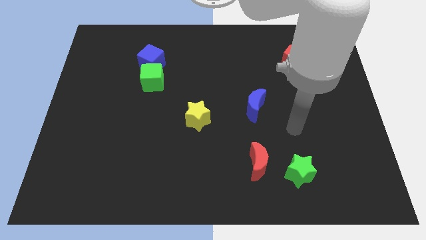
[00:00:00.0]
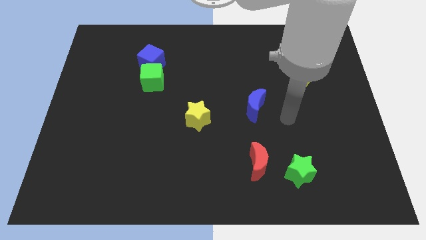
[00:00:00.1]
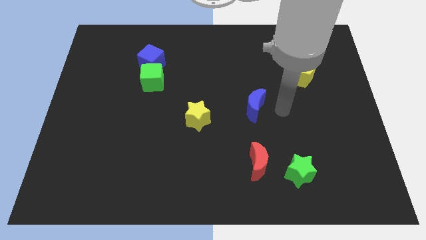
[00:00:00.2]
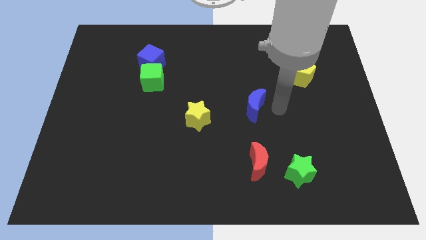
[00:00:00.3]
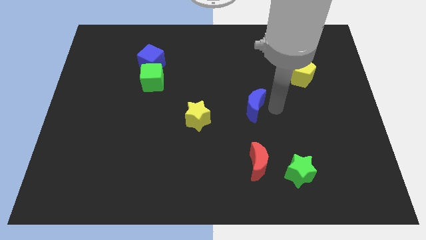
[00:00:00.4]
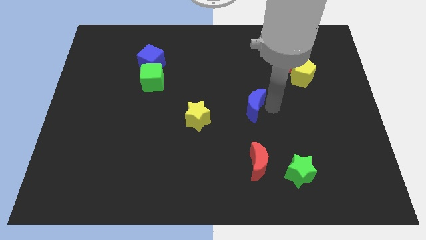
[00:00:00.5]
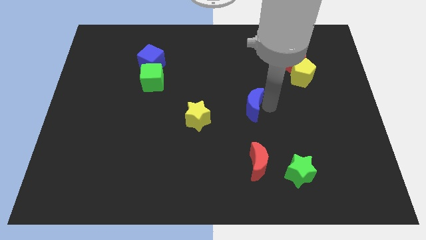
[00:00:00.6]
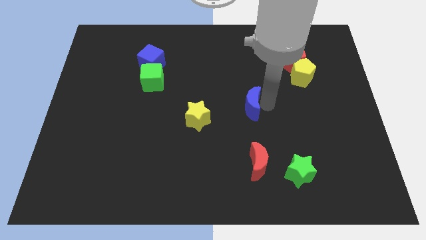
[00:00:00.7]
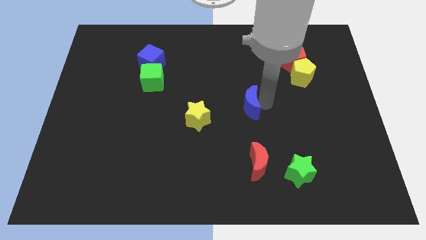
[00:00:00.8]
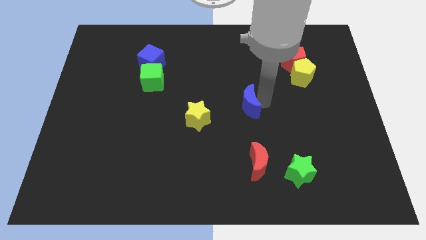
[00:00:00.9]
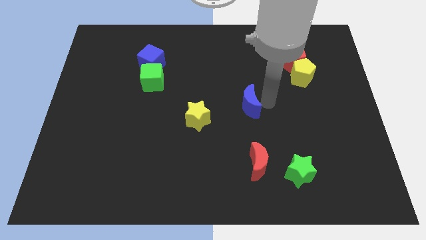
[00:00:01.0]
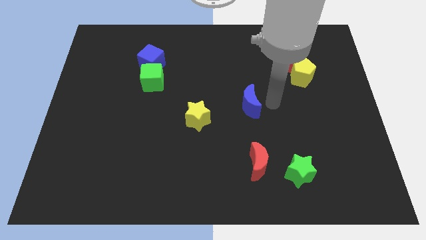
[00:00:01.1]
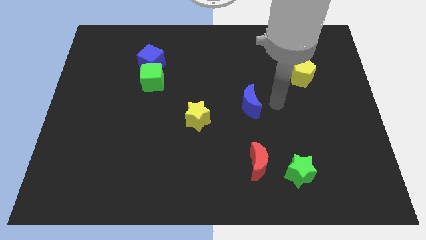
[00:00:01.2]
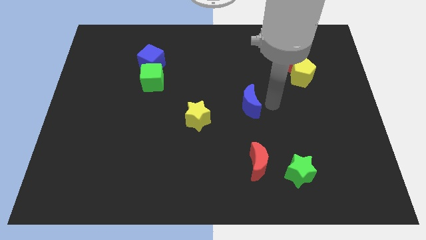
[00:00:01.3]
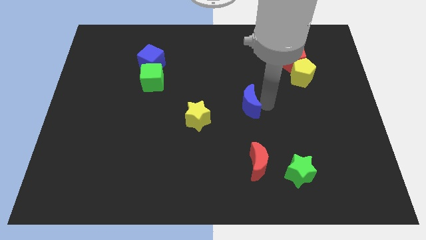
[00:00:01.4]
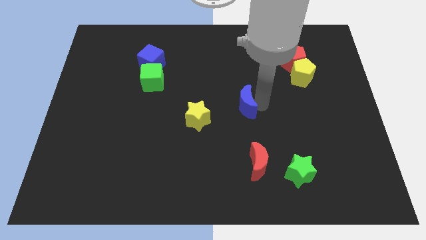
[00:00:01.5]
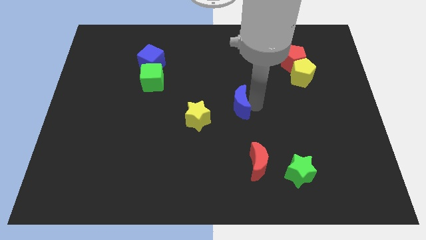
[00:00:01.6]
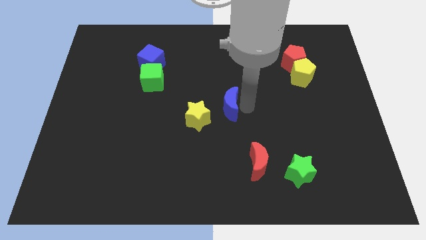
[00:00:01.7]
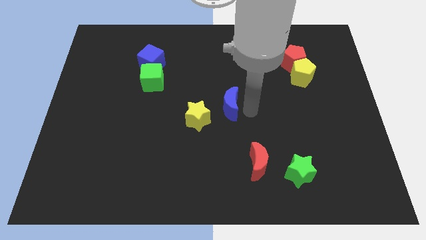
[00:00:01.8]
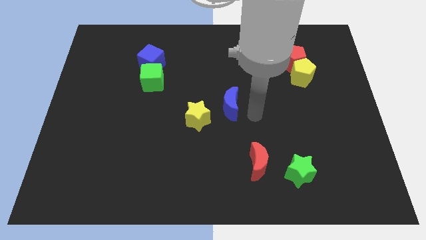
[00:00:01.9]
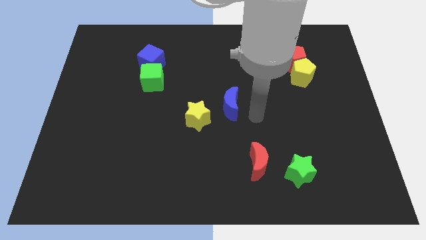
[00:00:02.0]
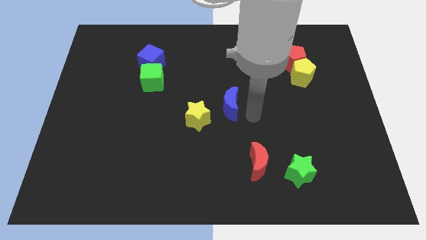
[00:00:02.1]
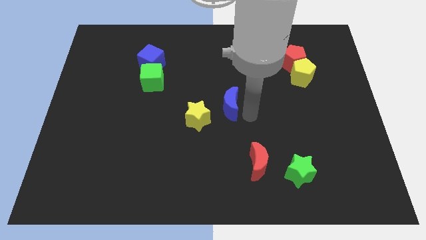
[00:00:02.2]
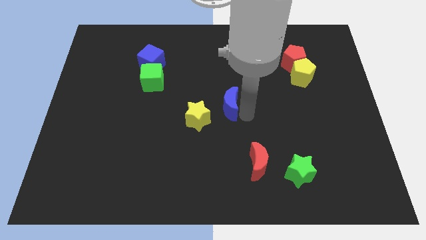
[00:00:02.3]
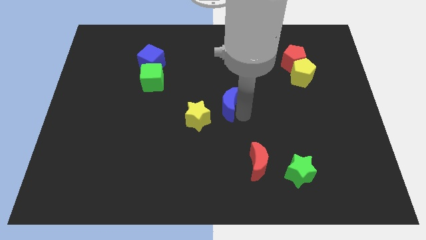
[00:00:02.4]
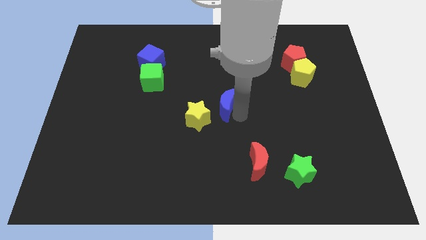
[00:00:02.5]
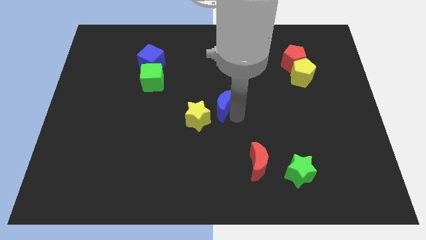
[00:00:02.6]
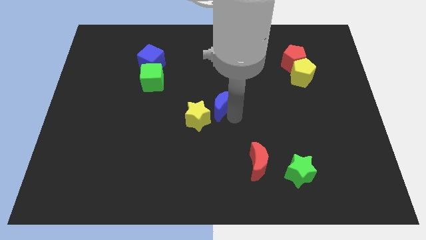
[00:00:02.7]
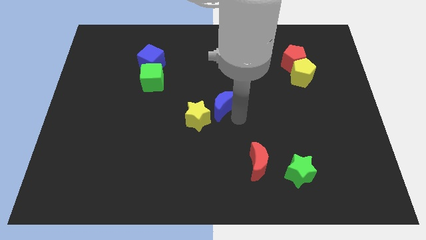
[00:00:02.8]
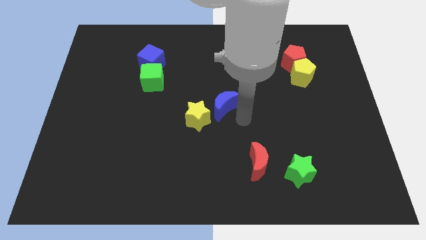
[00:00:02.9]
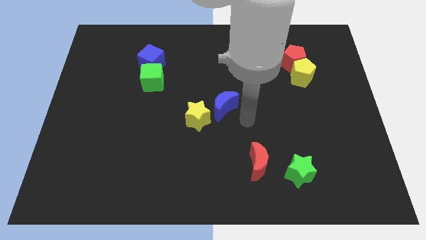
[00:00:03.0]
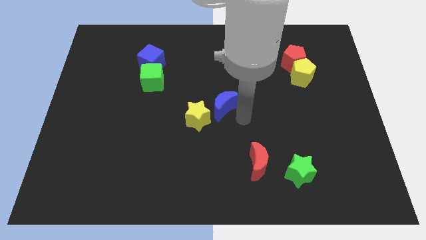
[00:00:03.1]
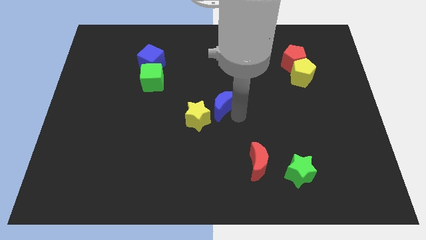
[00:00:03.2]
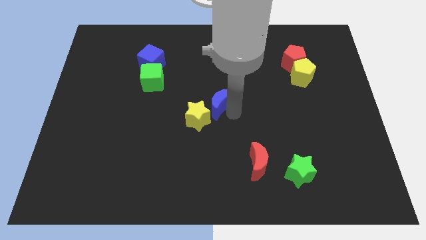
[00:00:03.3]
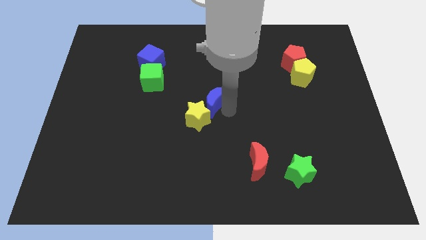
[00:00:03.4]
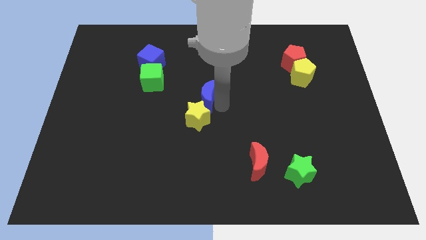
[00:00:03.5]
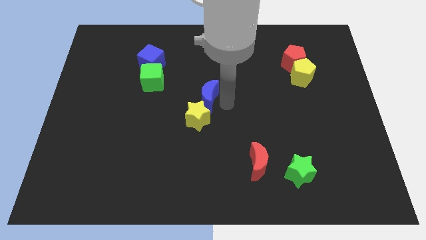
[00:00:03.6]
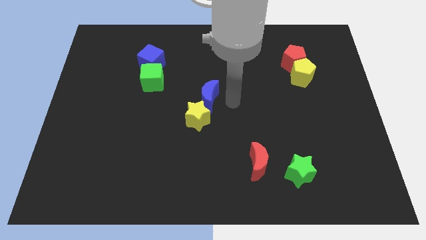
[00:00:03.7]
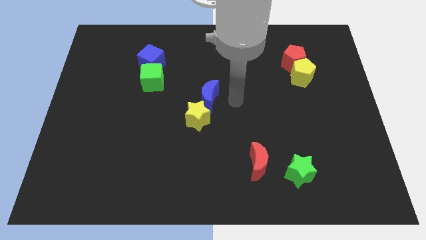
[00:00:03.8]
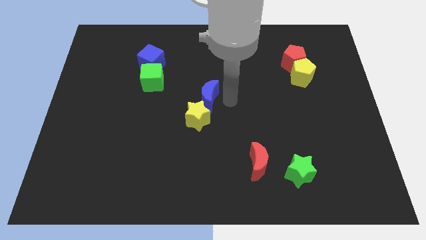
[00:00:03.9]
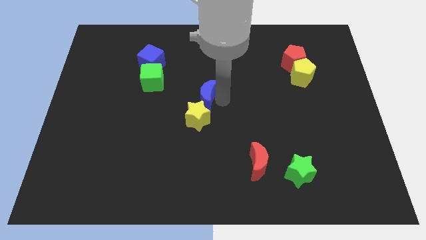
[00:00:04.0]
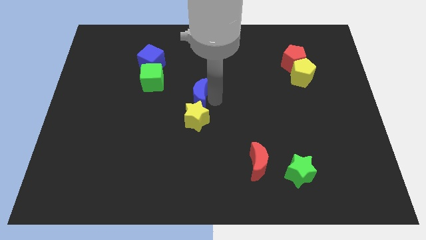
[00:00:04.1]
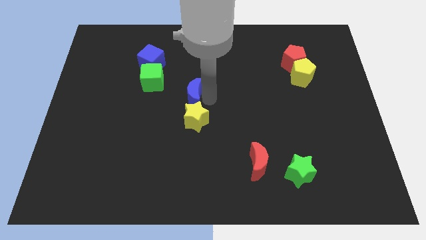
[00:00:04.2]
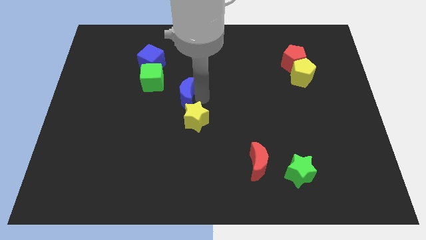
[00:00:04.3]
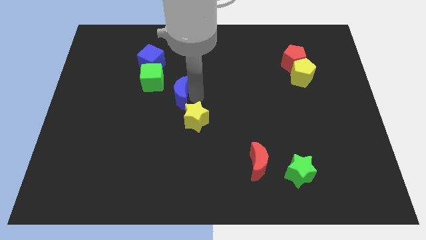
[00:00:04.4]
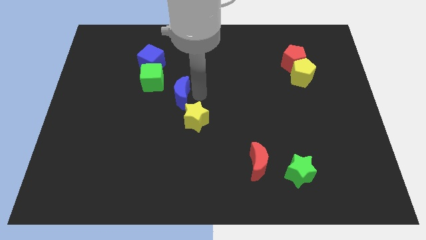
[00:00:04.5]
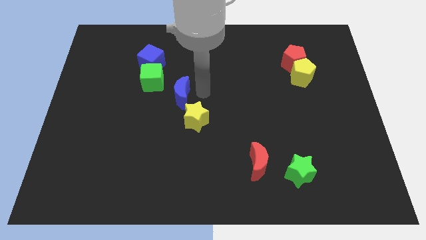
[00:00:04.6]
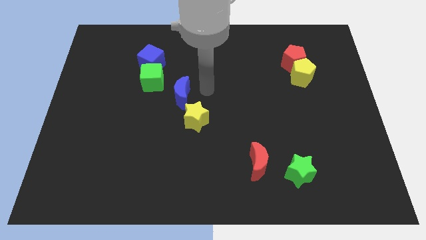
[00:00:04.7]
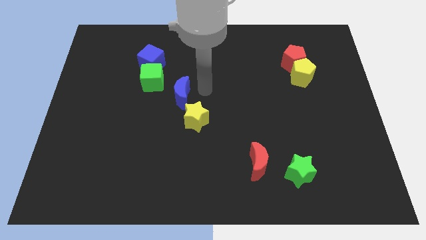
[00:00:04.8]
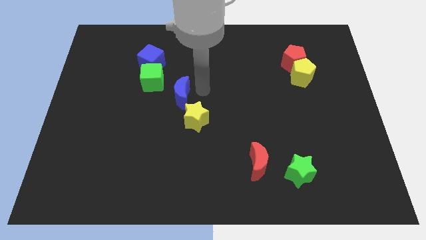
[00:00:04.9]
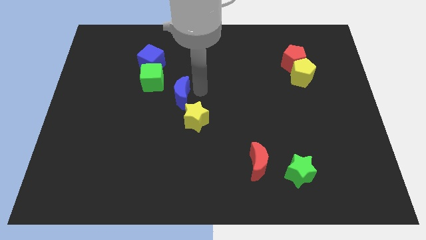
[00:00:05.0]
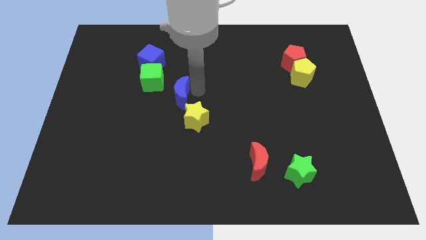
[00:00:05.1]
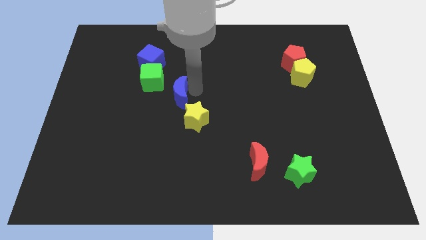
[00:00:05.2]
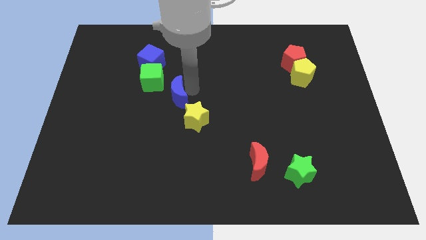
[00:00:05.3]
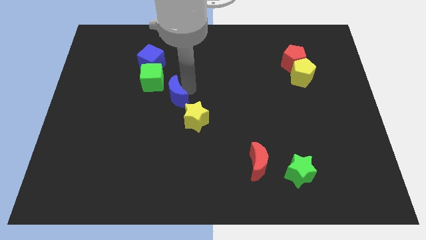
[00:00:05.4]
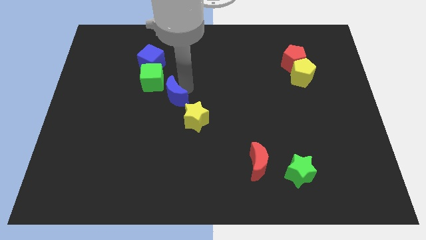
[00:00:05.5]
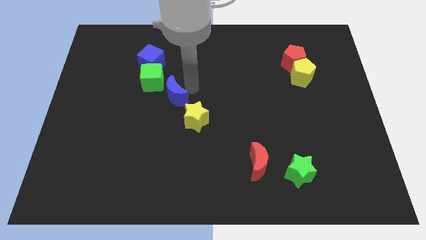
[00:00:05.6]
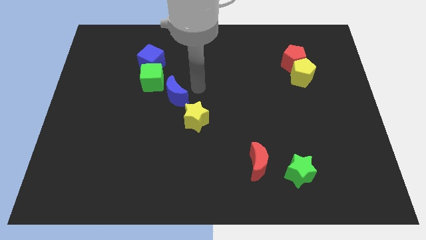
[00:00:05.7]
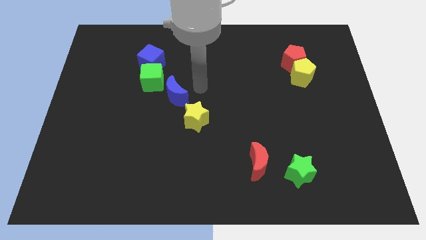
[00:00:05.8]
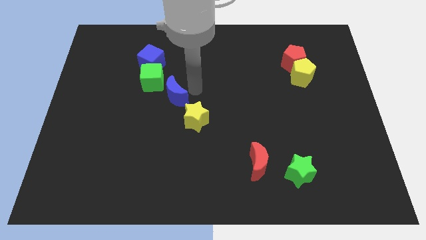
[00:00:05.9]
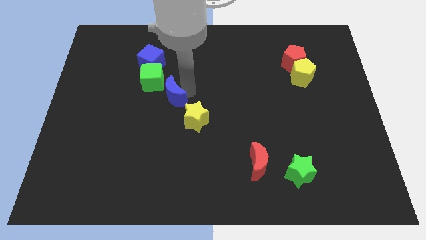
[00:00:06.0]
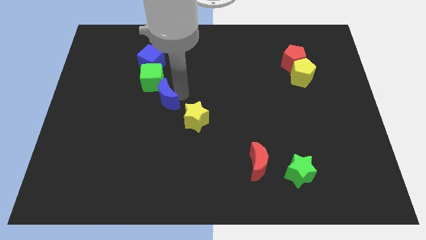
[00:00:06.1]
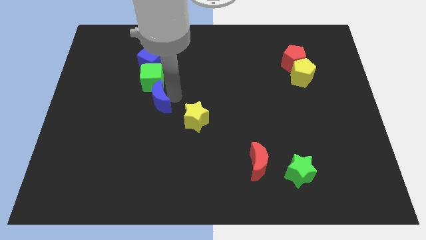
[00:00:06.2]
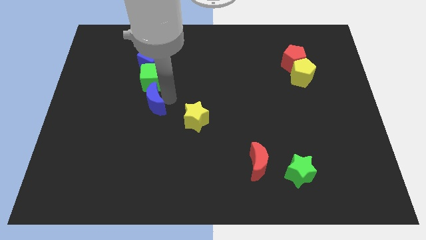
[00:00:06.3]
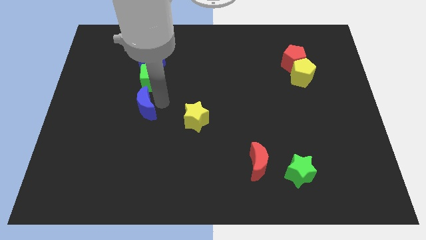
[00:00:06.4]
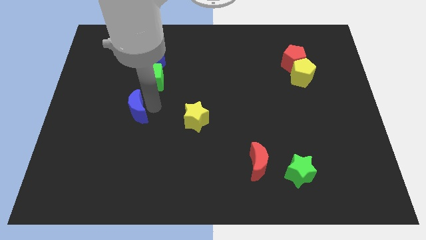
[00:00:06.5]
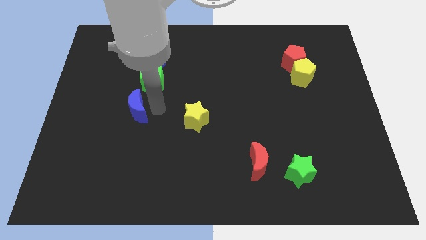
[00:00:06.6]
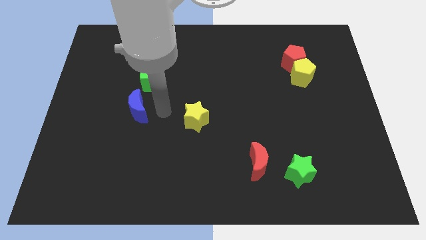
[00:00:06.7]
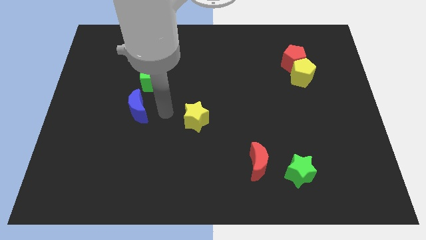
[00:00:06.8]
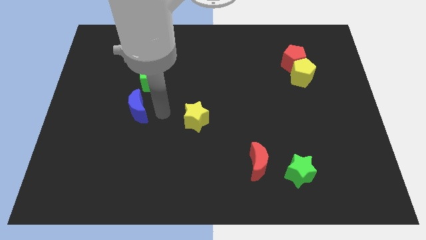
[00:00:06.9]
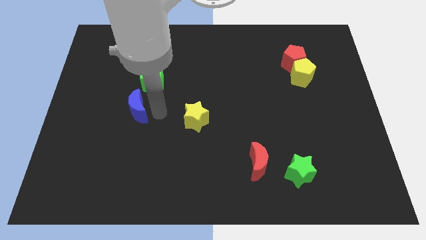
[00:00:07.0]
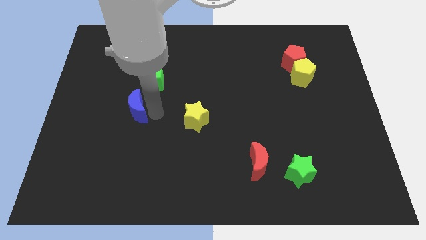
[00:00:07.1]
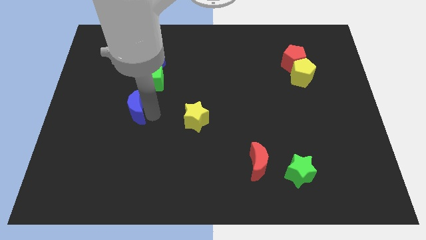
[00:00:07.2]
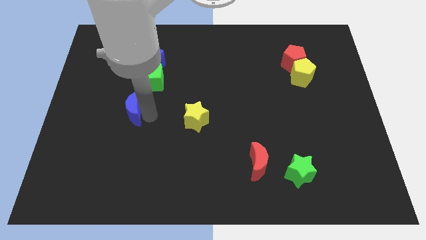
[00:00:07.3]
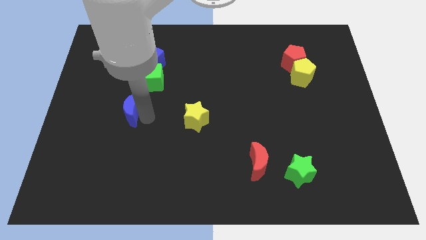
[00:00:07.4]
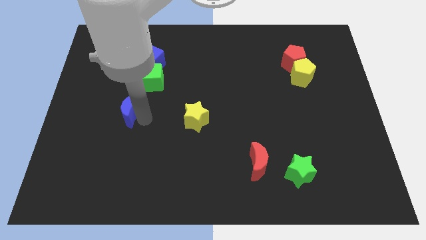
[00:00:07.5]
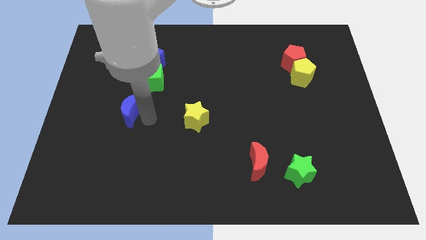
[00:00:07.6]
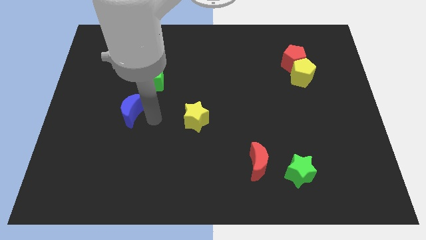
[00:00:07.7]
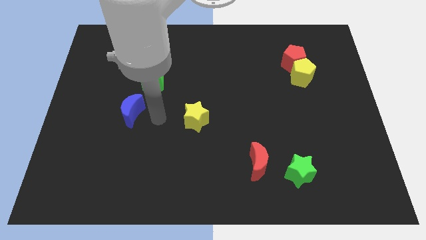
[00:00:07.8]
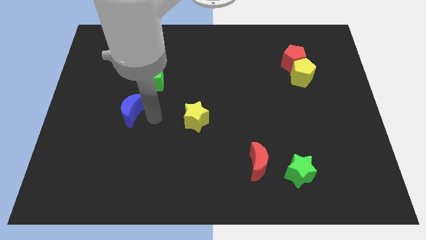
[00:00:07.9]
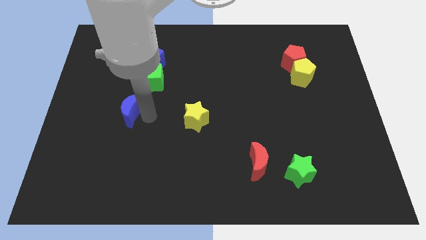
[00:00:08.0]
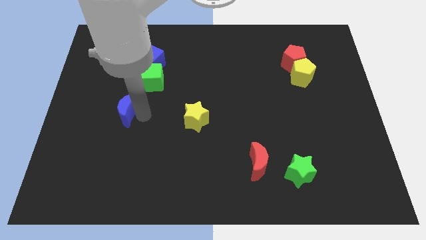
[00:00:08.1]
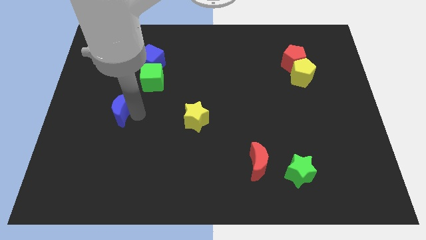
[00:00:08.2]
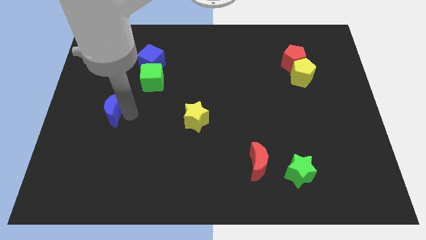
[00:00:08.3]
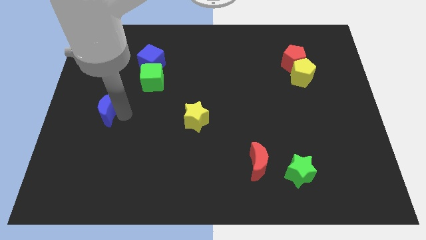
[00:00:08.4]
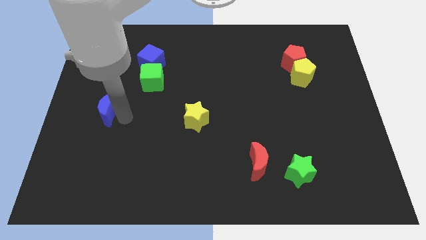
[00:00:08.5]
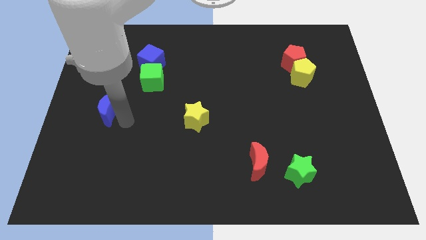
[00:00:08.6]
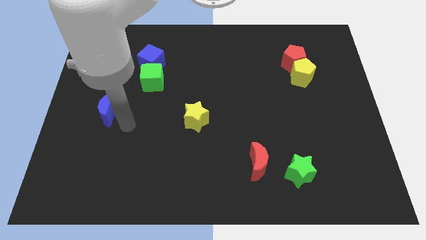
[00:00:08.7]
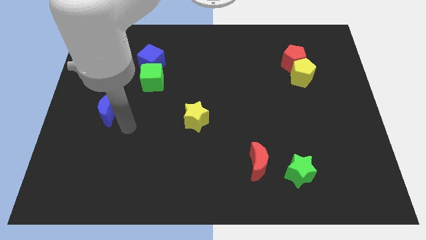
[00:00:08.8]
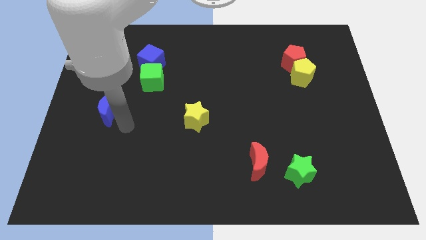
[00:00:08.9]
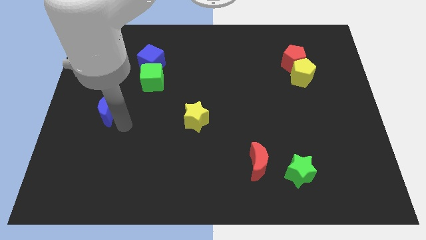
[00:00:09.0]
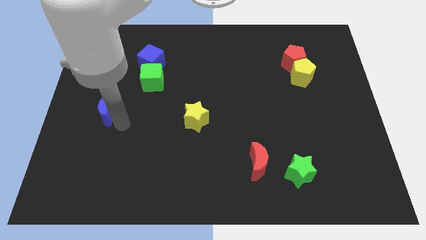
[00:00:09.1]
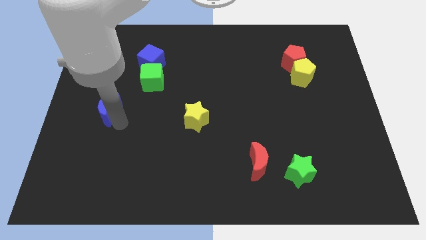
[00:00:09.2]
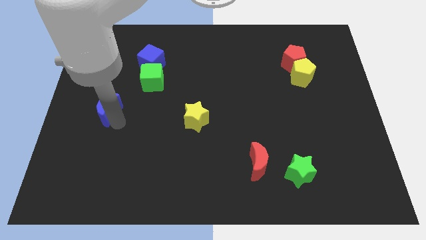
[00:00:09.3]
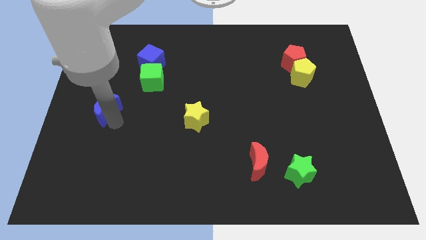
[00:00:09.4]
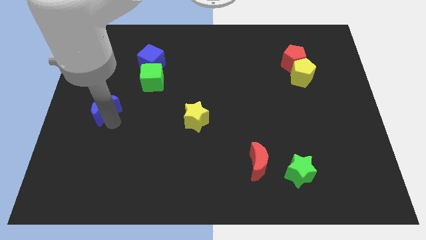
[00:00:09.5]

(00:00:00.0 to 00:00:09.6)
move the blue moon to the left side
